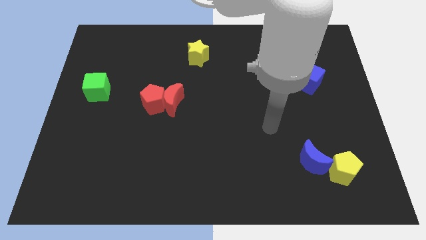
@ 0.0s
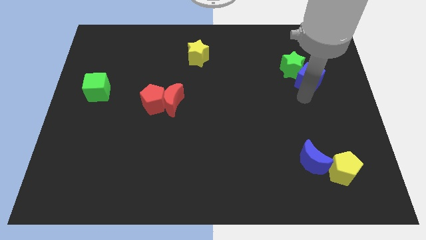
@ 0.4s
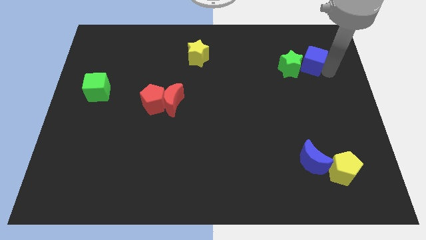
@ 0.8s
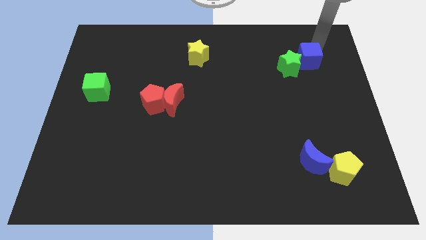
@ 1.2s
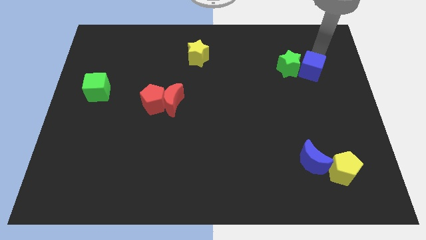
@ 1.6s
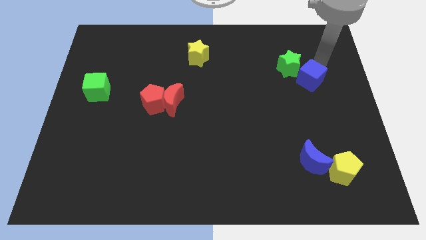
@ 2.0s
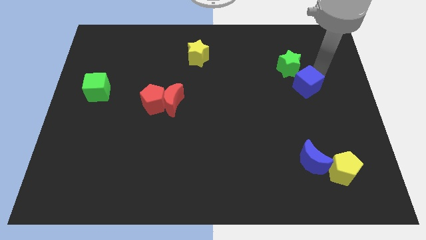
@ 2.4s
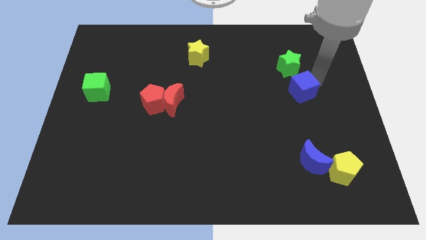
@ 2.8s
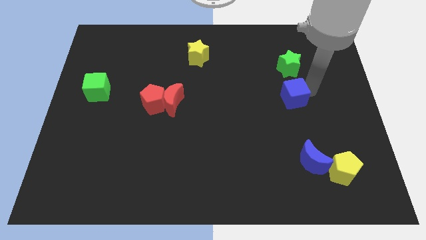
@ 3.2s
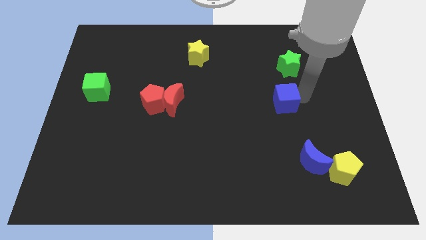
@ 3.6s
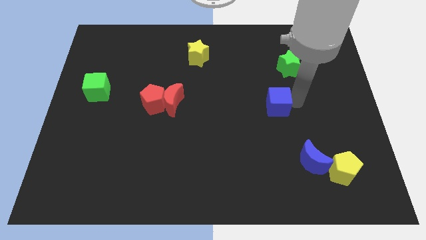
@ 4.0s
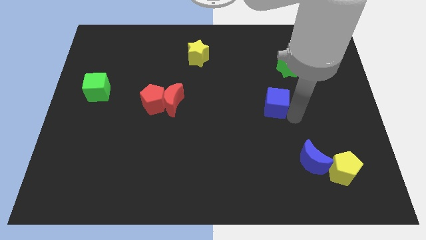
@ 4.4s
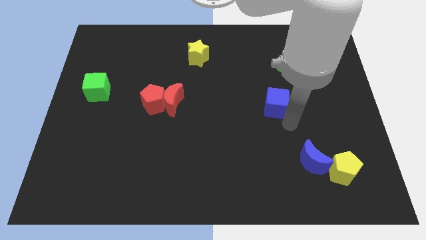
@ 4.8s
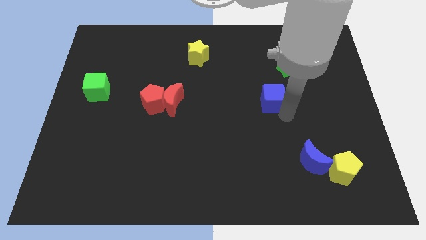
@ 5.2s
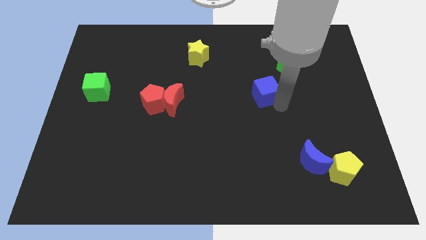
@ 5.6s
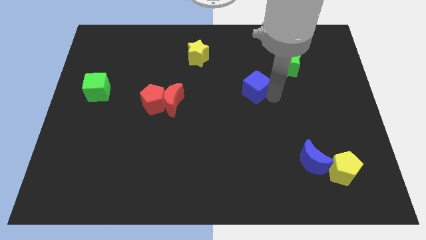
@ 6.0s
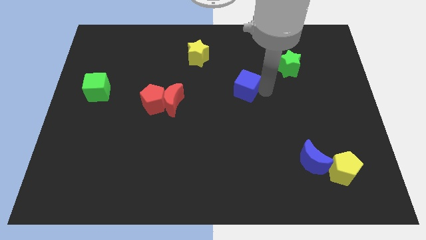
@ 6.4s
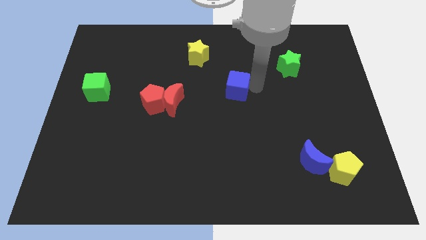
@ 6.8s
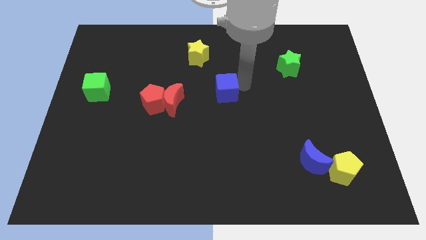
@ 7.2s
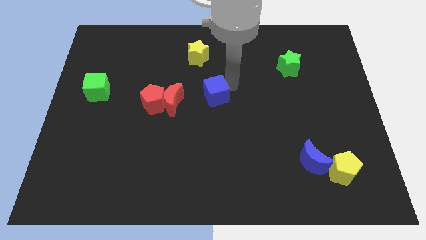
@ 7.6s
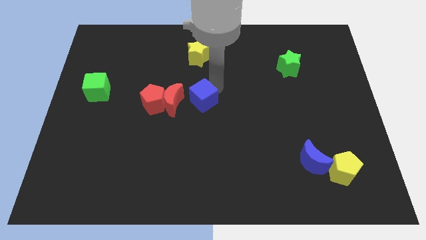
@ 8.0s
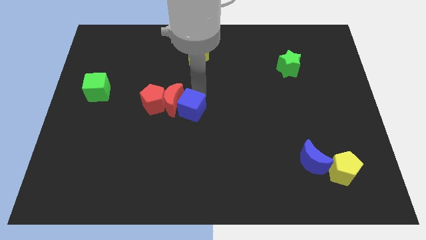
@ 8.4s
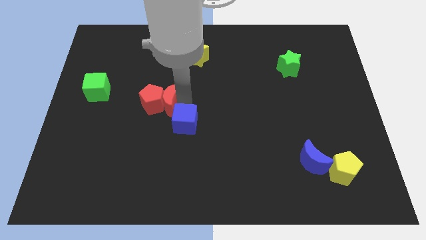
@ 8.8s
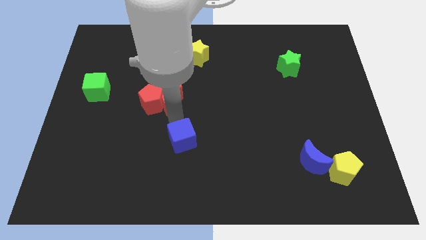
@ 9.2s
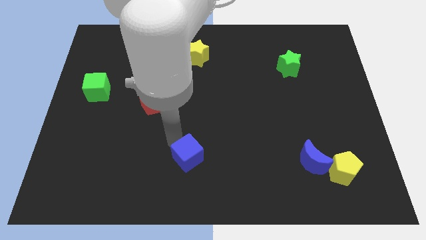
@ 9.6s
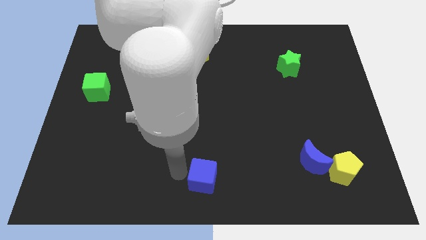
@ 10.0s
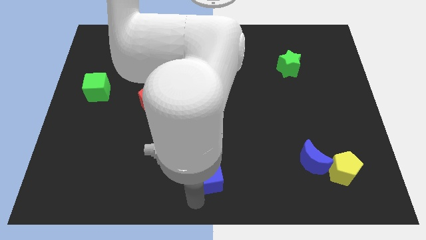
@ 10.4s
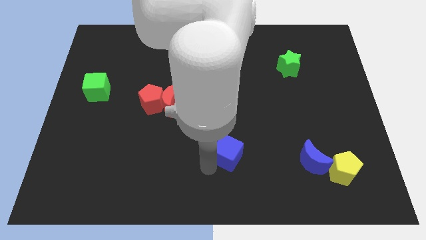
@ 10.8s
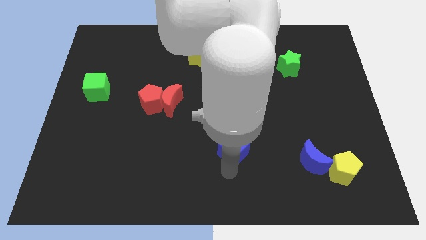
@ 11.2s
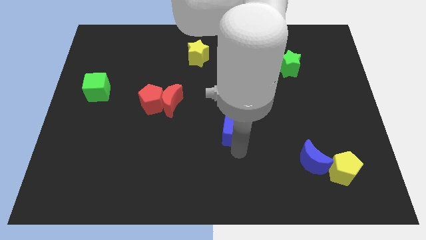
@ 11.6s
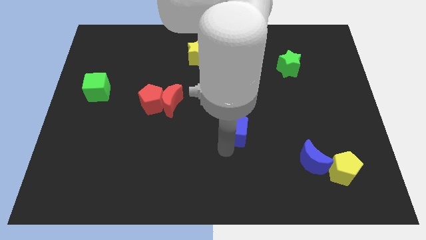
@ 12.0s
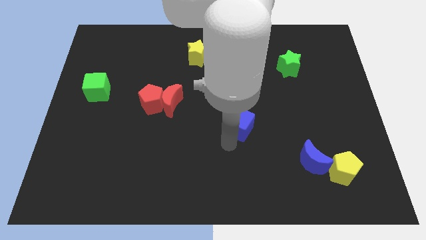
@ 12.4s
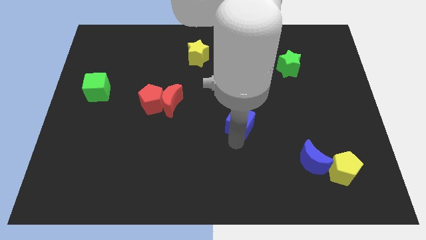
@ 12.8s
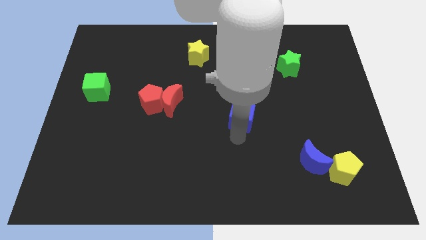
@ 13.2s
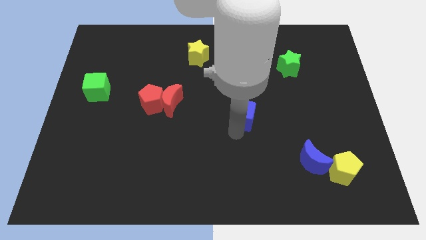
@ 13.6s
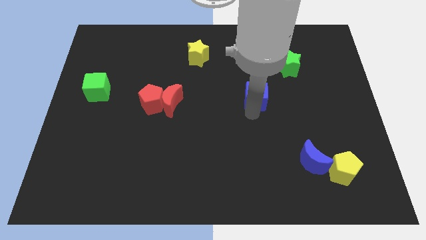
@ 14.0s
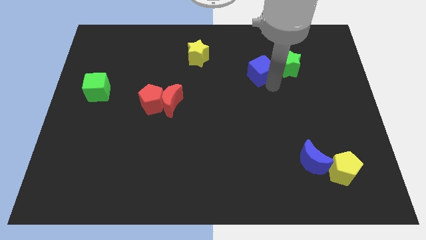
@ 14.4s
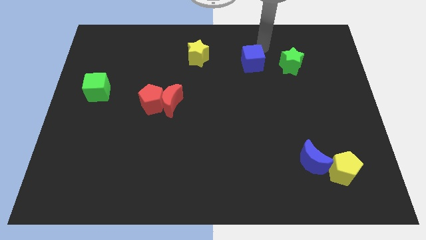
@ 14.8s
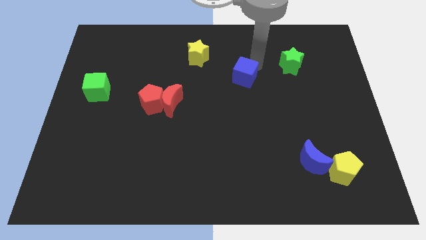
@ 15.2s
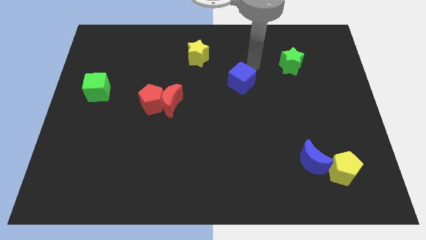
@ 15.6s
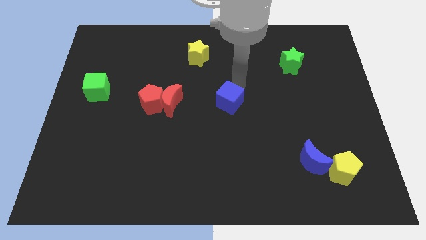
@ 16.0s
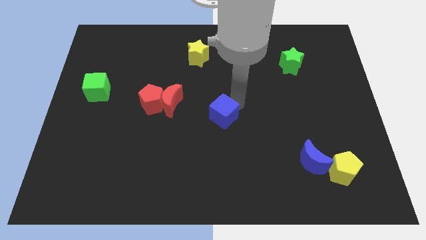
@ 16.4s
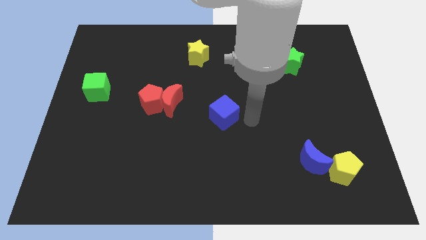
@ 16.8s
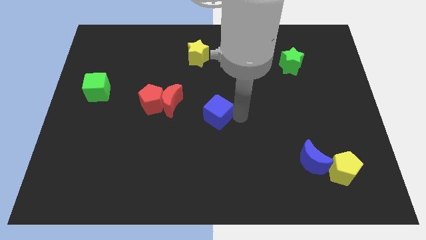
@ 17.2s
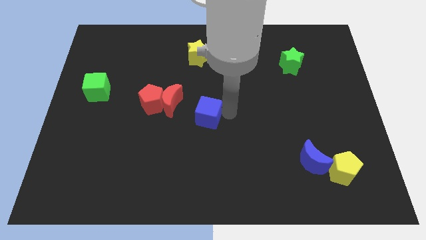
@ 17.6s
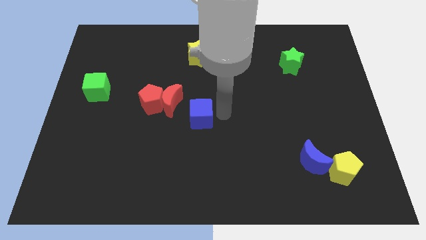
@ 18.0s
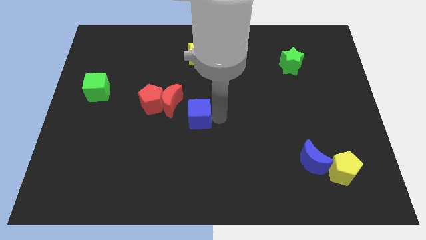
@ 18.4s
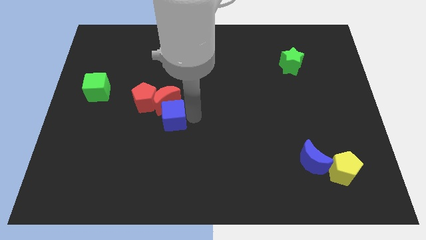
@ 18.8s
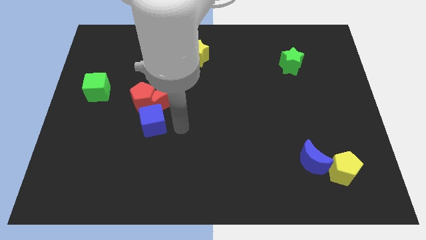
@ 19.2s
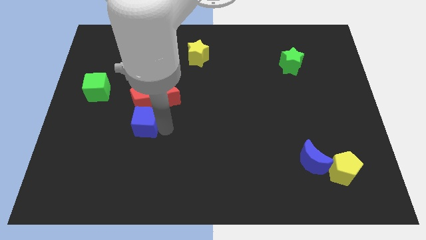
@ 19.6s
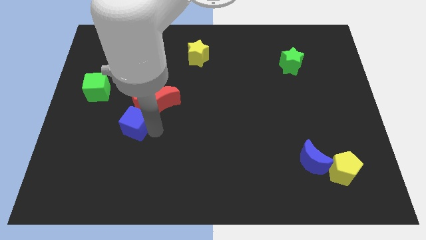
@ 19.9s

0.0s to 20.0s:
slide the blue cube diagonally down and to the left of the red pentagon

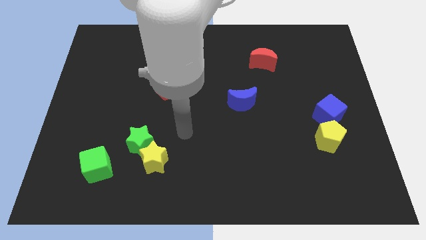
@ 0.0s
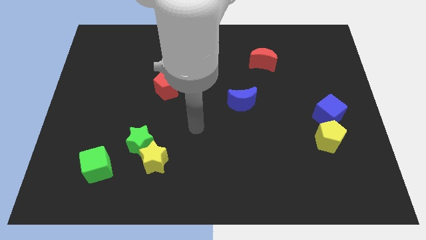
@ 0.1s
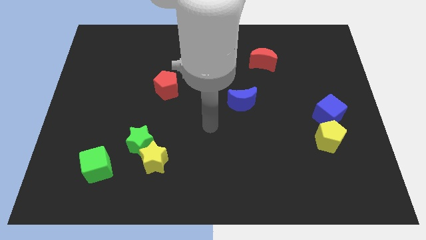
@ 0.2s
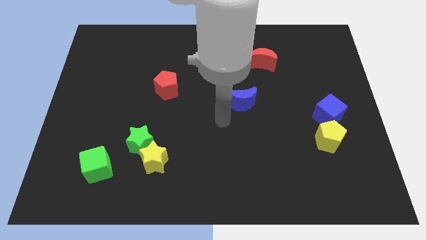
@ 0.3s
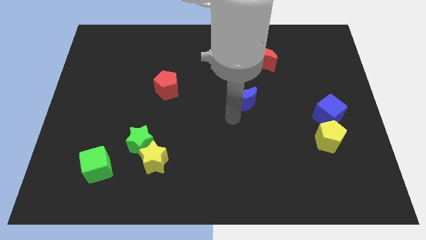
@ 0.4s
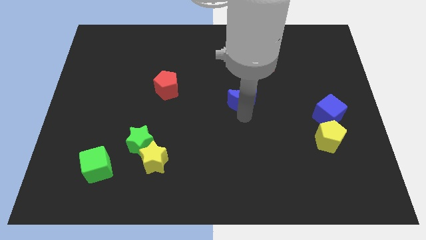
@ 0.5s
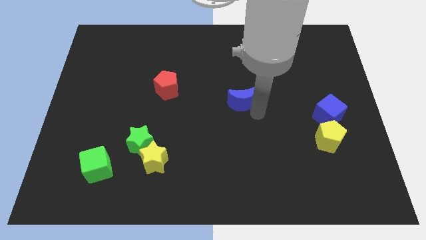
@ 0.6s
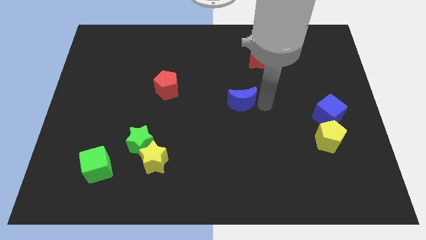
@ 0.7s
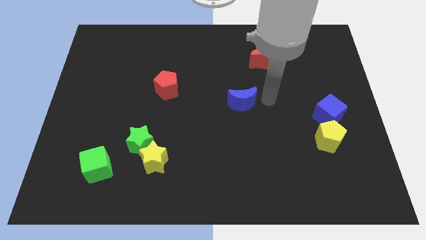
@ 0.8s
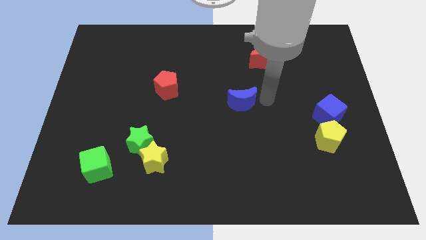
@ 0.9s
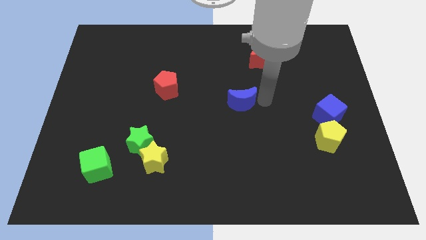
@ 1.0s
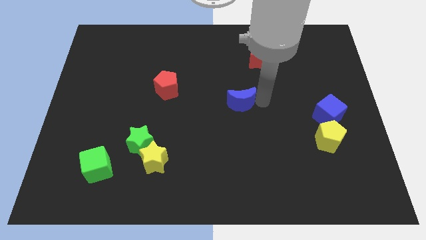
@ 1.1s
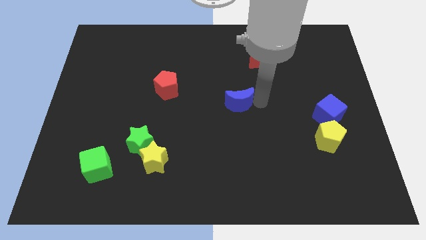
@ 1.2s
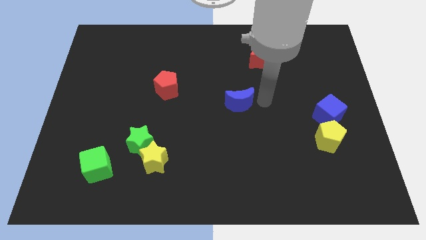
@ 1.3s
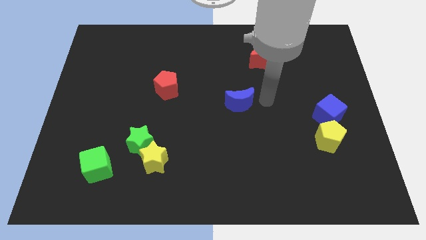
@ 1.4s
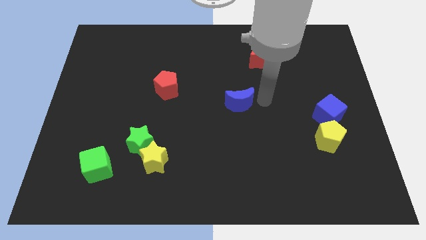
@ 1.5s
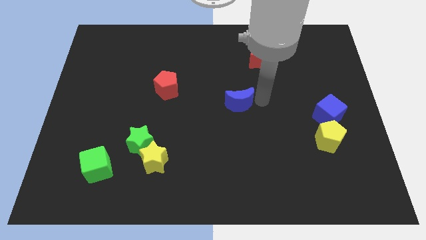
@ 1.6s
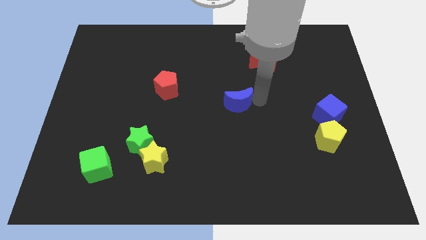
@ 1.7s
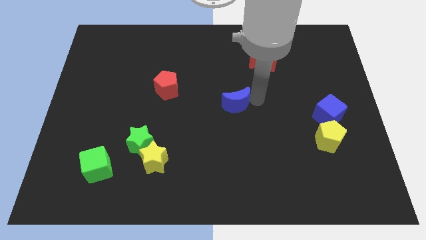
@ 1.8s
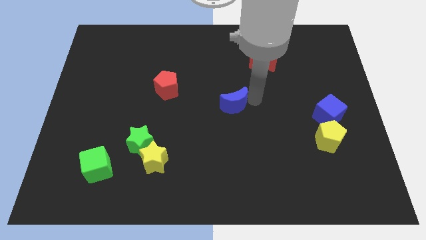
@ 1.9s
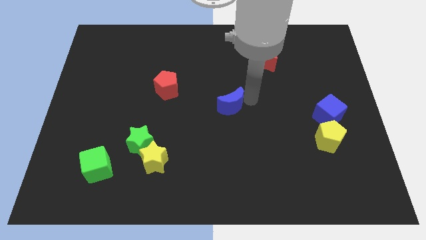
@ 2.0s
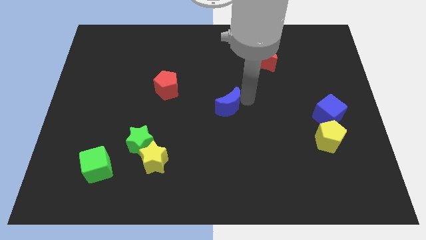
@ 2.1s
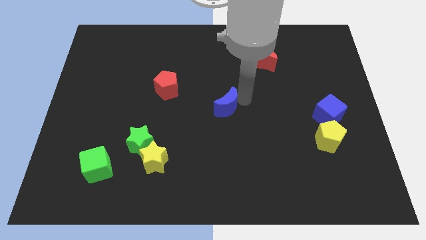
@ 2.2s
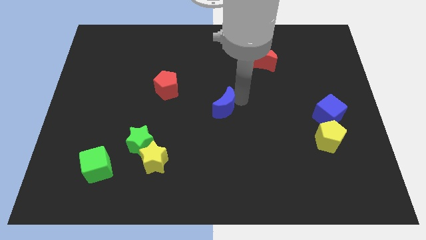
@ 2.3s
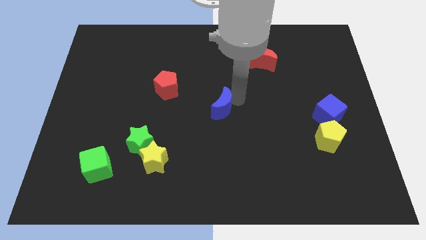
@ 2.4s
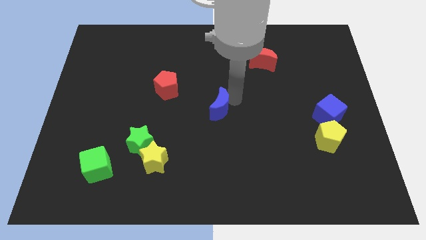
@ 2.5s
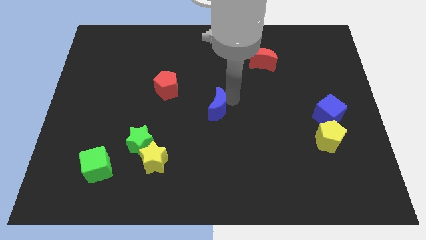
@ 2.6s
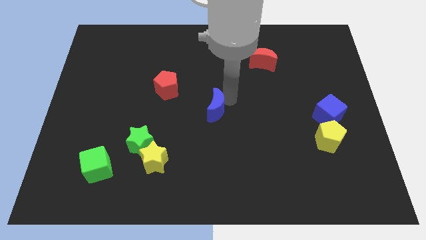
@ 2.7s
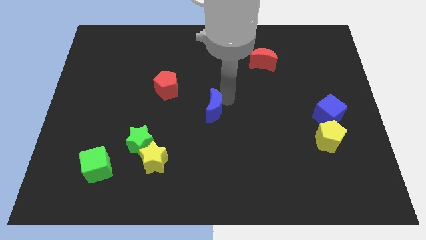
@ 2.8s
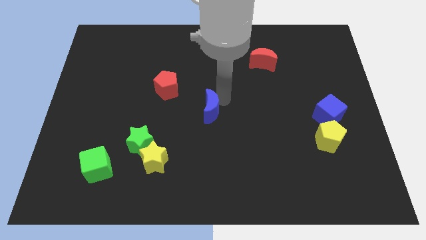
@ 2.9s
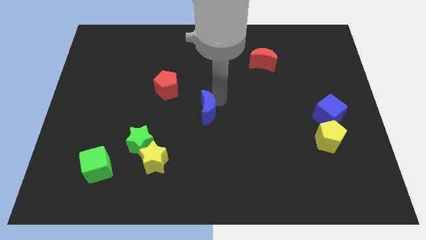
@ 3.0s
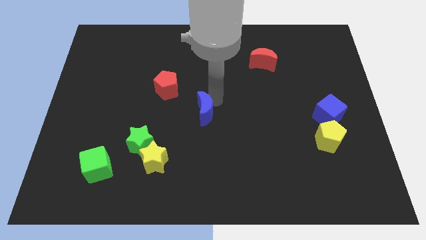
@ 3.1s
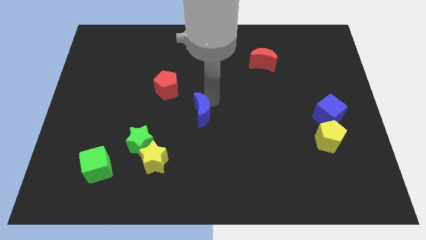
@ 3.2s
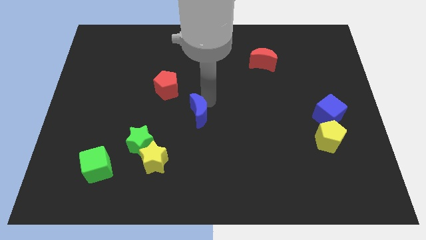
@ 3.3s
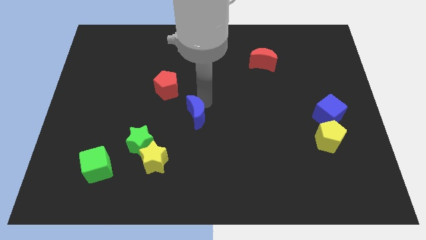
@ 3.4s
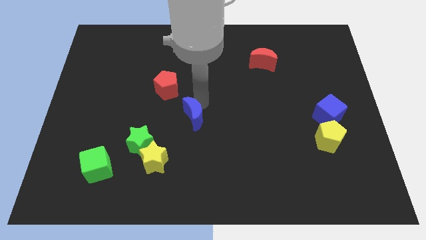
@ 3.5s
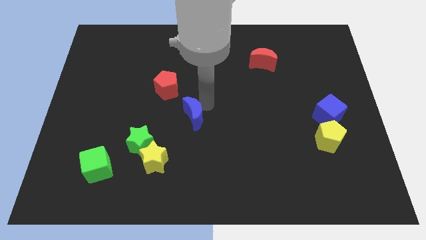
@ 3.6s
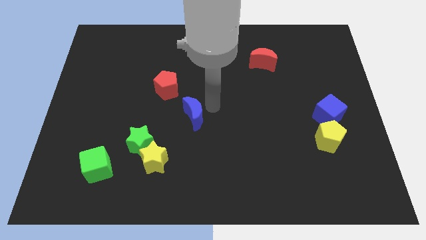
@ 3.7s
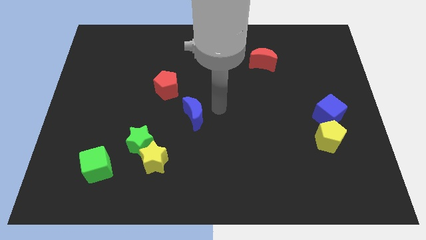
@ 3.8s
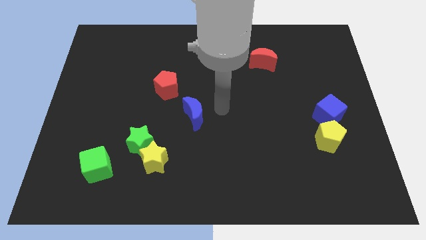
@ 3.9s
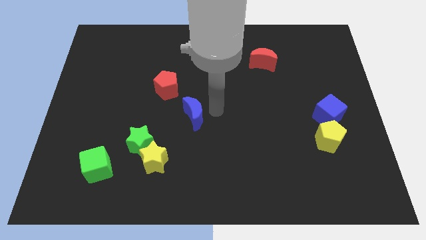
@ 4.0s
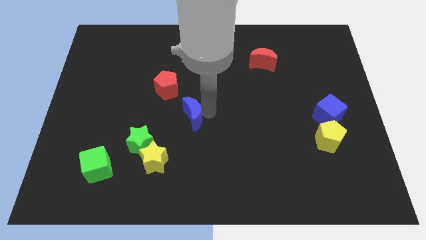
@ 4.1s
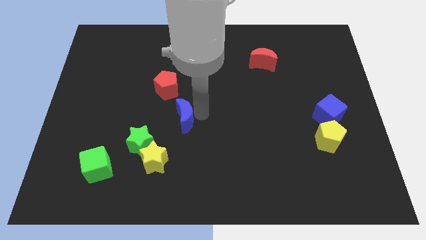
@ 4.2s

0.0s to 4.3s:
put the blue moon to the bottom side of the red pentagon
